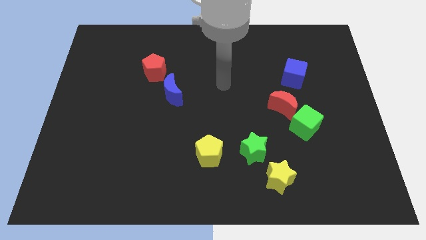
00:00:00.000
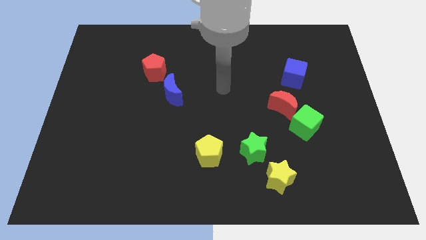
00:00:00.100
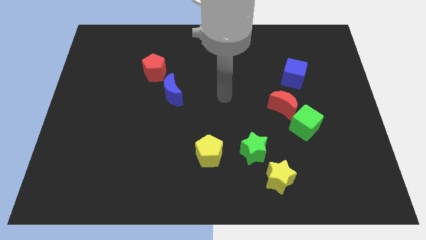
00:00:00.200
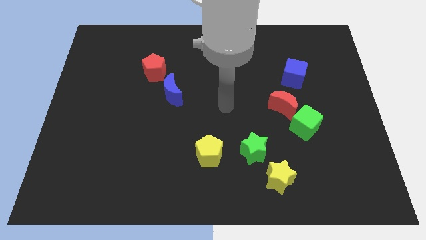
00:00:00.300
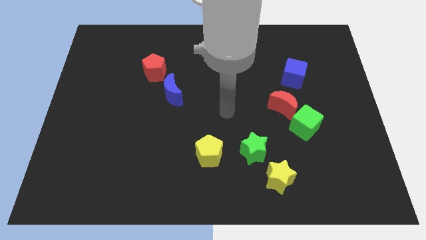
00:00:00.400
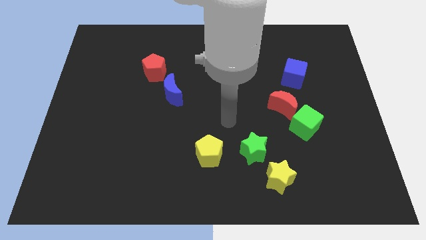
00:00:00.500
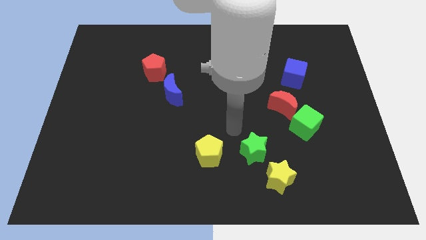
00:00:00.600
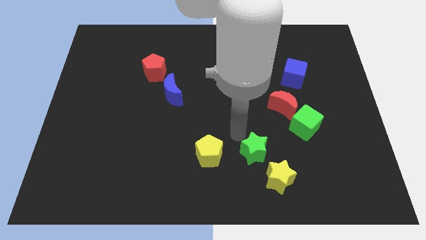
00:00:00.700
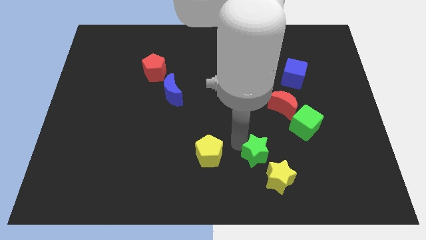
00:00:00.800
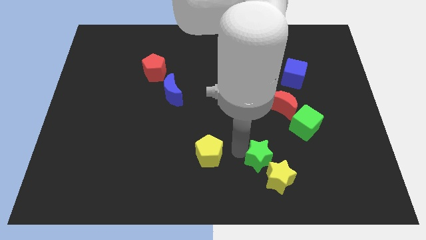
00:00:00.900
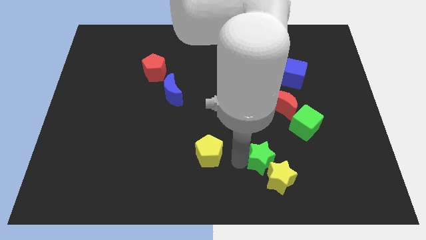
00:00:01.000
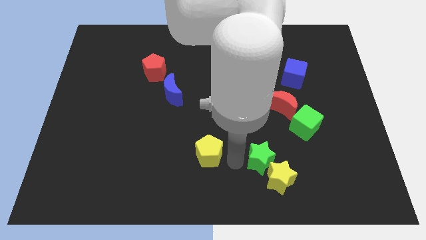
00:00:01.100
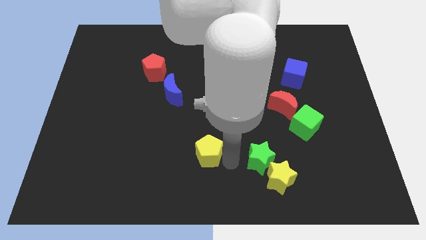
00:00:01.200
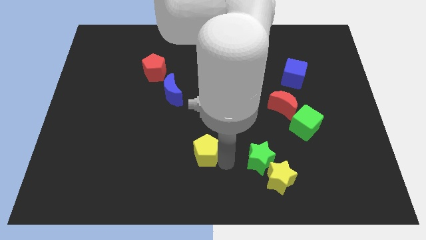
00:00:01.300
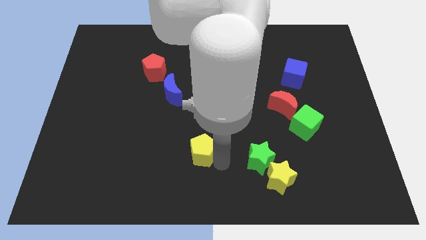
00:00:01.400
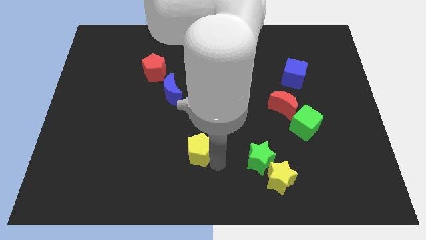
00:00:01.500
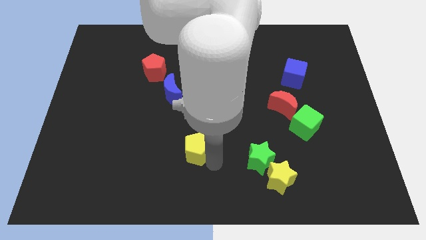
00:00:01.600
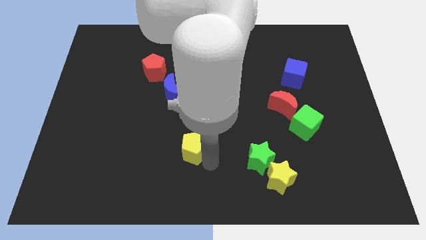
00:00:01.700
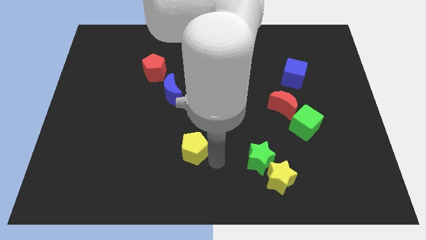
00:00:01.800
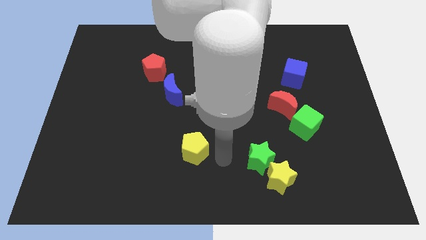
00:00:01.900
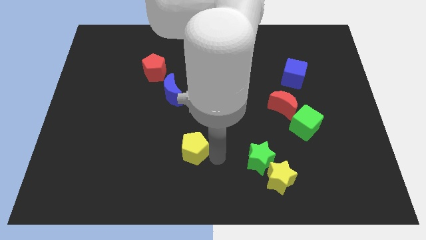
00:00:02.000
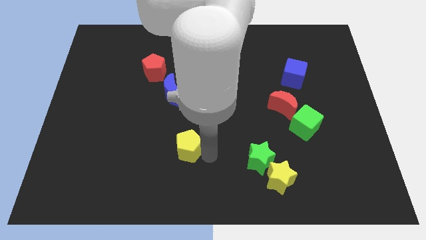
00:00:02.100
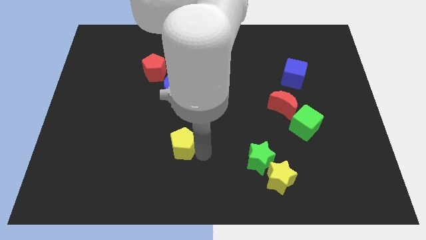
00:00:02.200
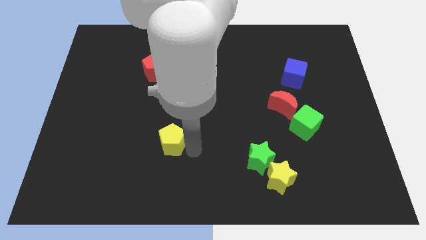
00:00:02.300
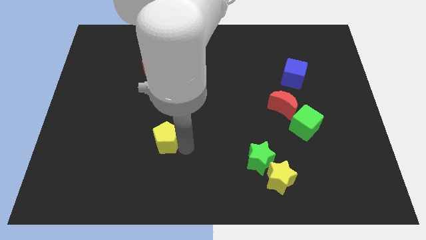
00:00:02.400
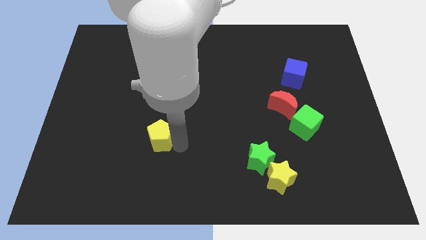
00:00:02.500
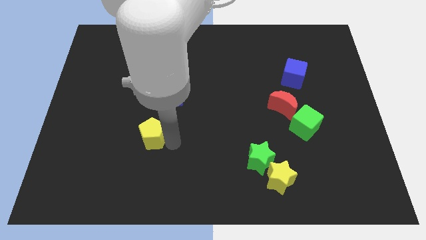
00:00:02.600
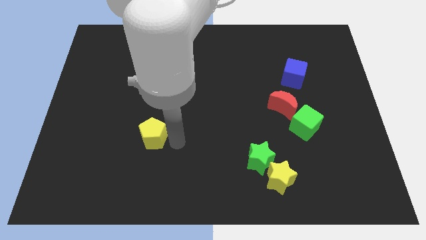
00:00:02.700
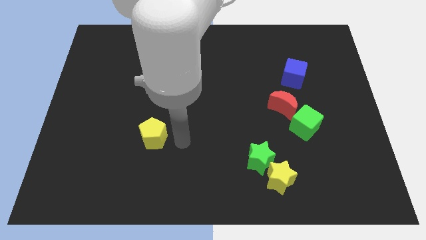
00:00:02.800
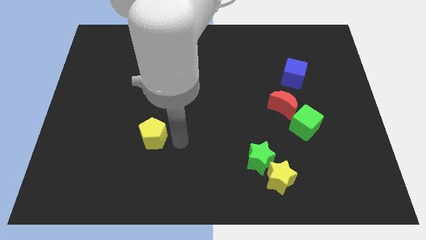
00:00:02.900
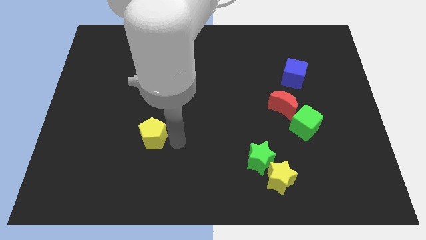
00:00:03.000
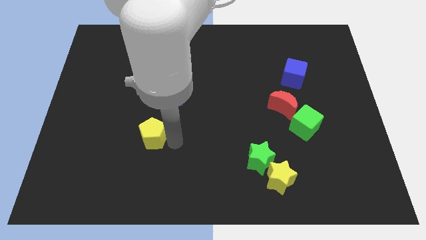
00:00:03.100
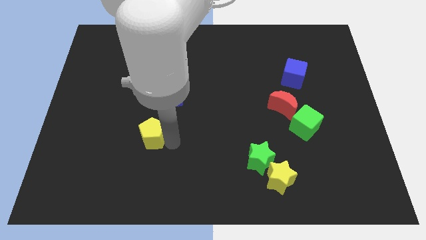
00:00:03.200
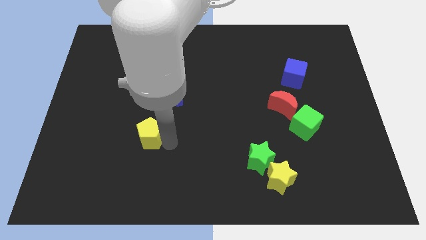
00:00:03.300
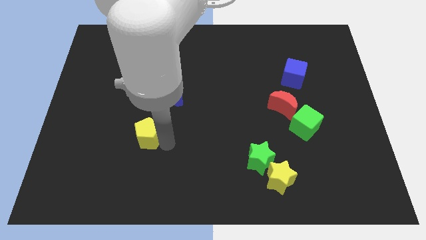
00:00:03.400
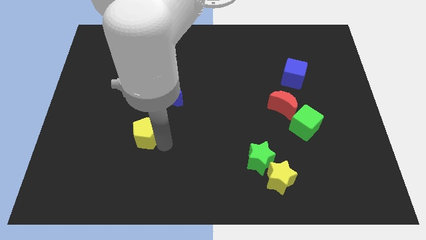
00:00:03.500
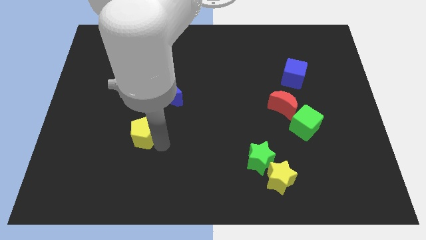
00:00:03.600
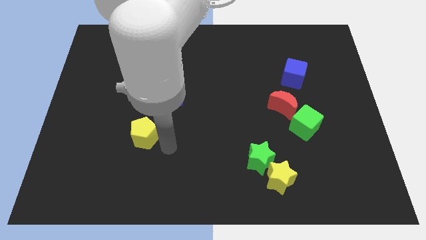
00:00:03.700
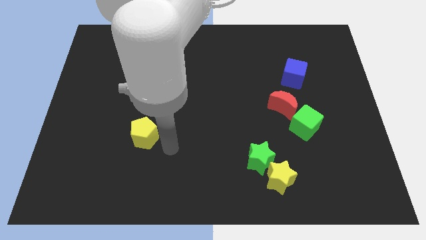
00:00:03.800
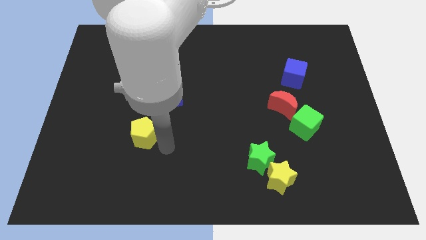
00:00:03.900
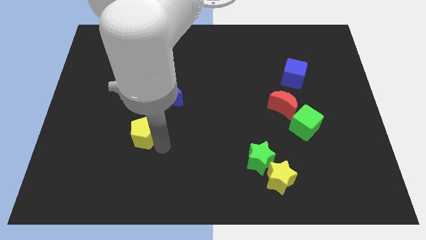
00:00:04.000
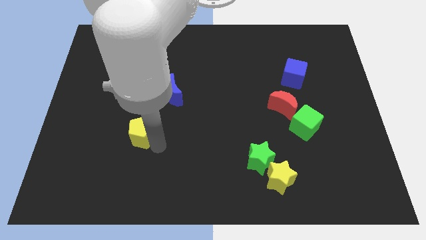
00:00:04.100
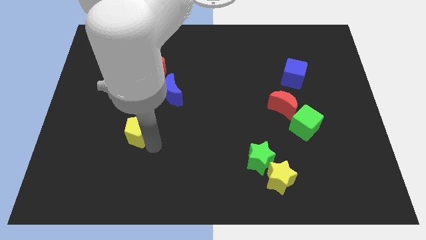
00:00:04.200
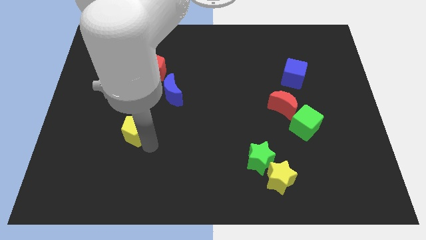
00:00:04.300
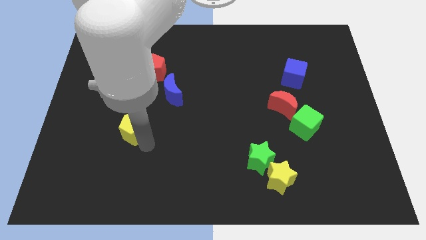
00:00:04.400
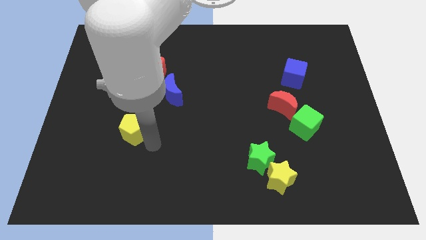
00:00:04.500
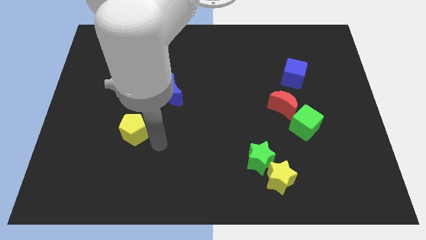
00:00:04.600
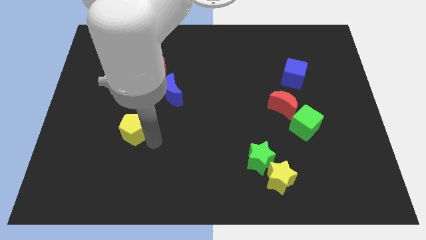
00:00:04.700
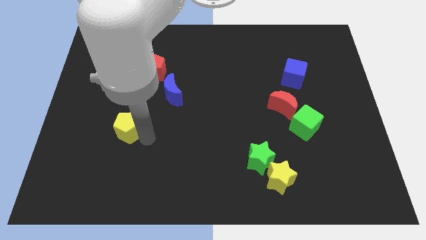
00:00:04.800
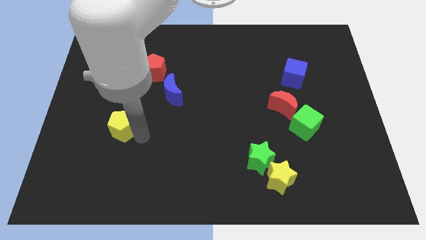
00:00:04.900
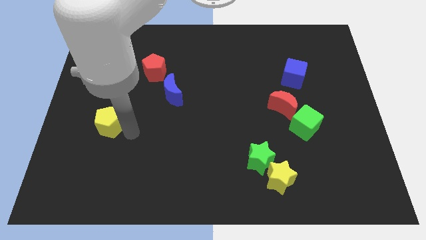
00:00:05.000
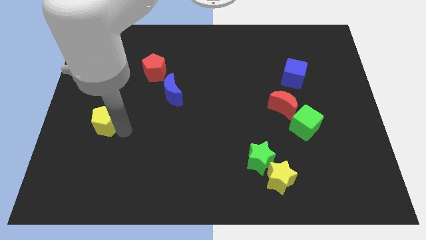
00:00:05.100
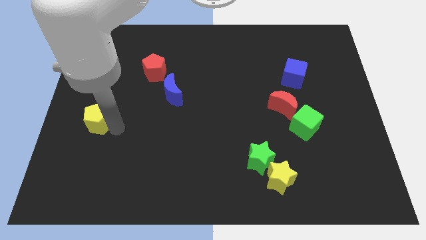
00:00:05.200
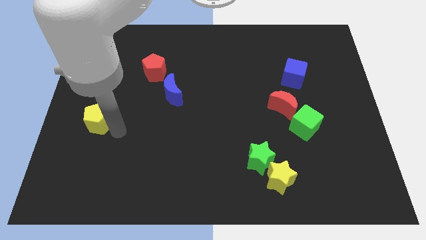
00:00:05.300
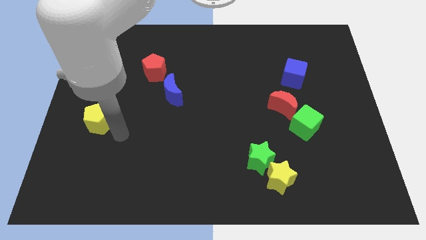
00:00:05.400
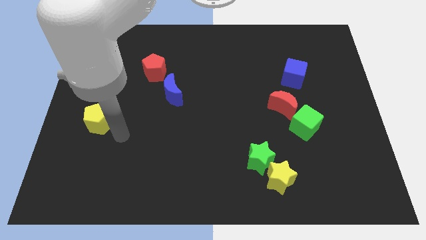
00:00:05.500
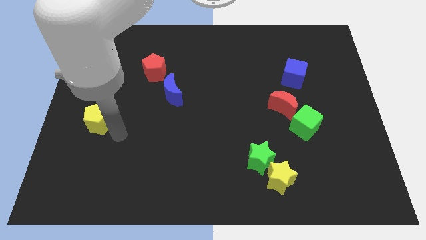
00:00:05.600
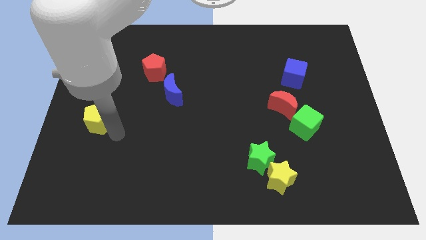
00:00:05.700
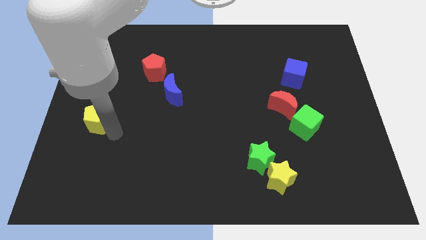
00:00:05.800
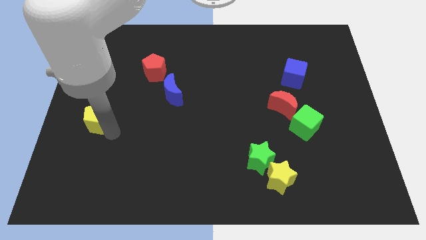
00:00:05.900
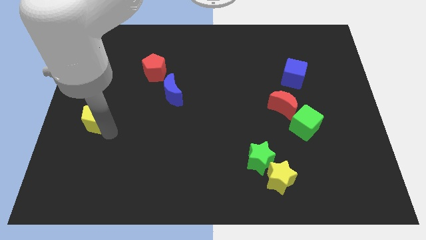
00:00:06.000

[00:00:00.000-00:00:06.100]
move the yellow pentagon to the left side of the board

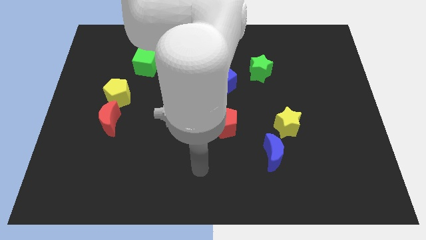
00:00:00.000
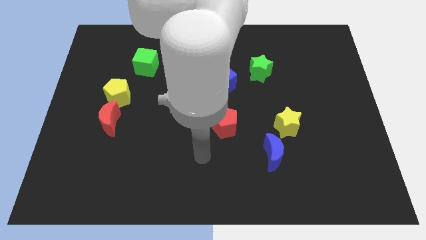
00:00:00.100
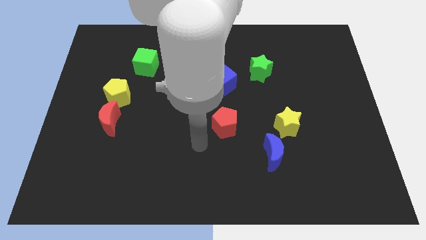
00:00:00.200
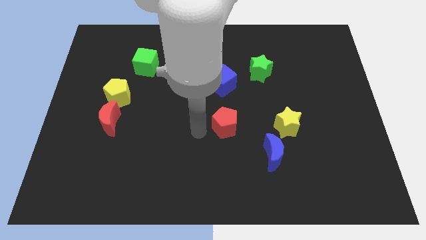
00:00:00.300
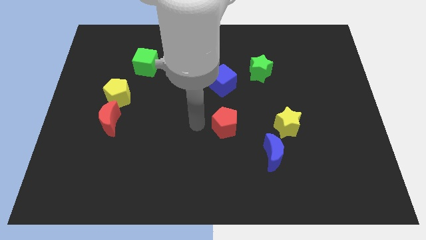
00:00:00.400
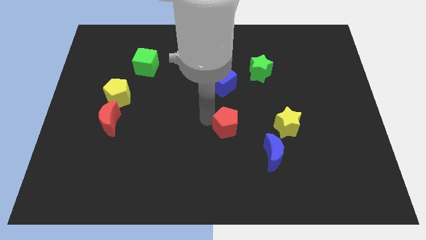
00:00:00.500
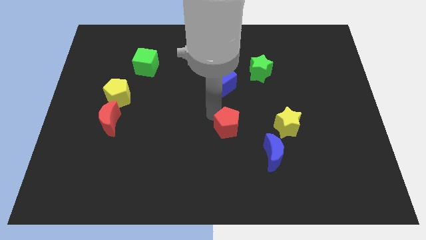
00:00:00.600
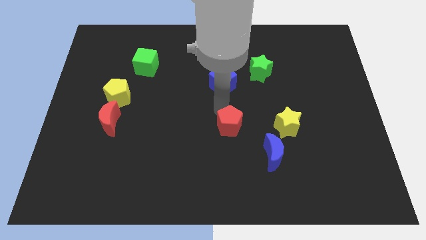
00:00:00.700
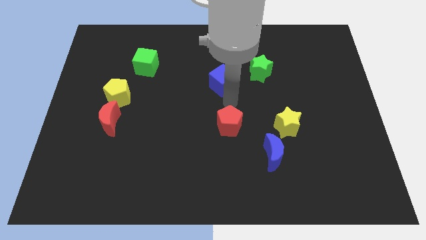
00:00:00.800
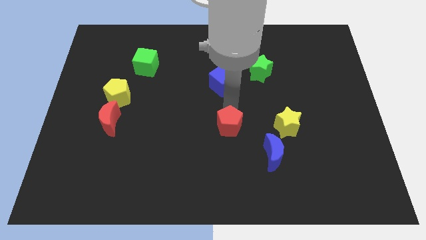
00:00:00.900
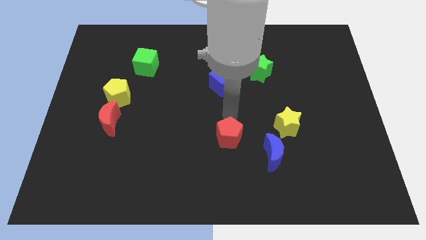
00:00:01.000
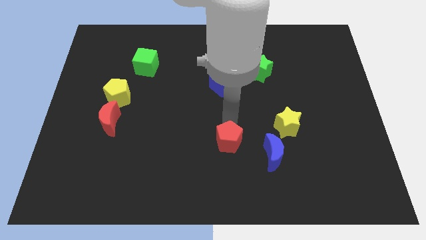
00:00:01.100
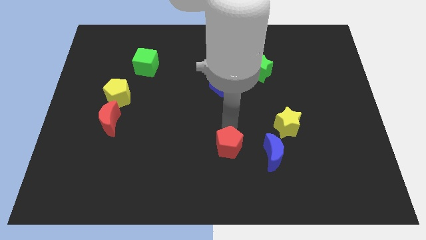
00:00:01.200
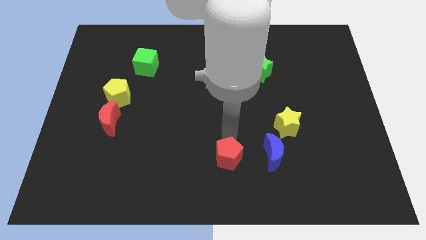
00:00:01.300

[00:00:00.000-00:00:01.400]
put the red pentagon to the bottom side
